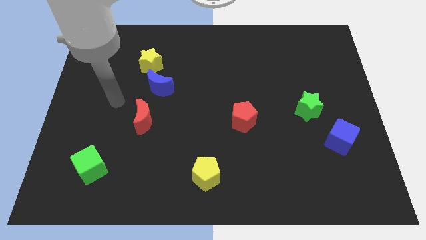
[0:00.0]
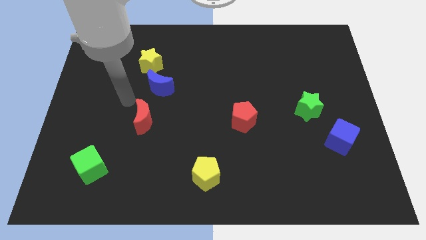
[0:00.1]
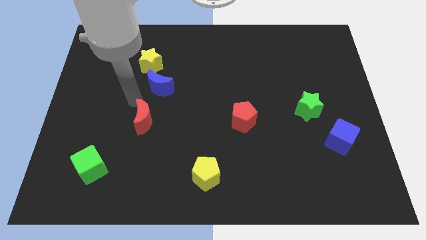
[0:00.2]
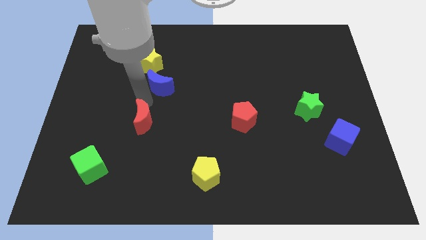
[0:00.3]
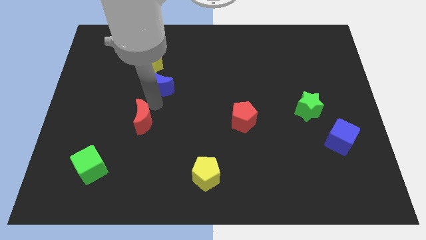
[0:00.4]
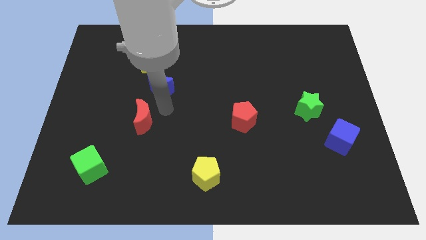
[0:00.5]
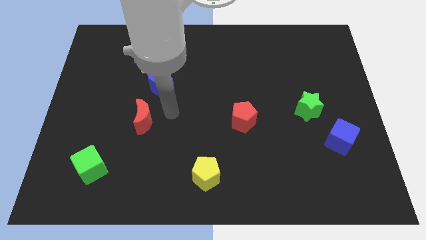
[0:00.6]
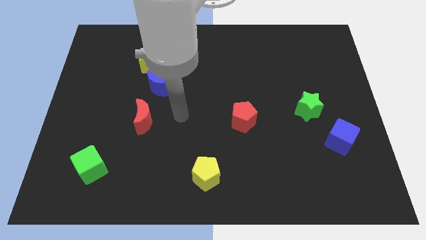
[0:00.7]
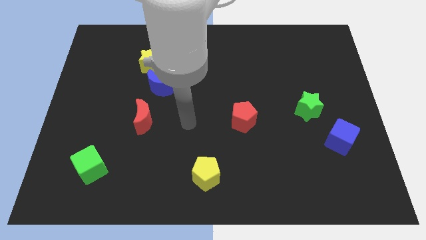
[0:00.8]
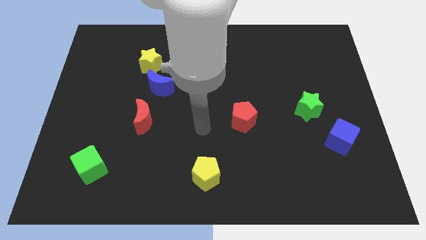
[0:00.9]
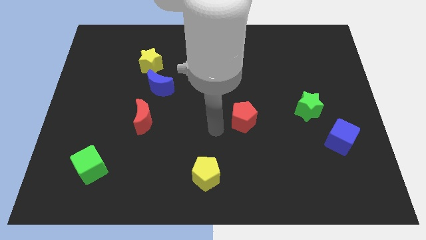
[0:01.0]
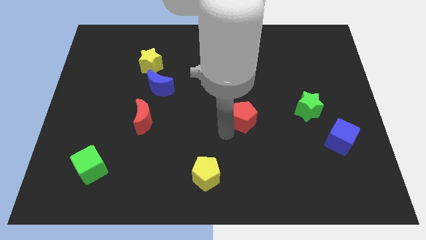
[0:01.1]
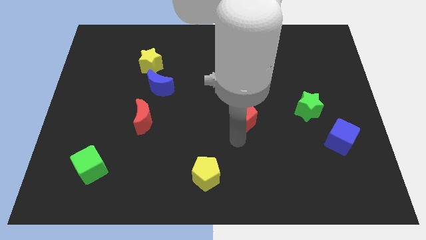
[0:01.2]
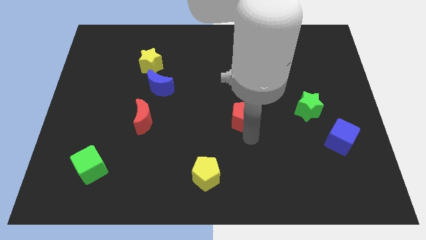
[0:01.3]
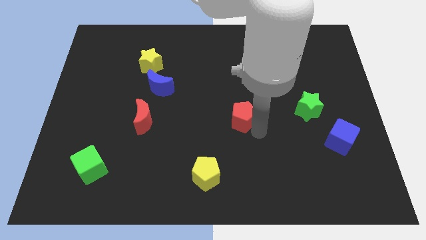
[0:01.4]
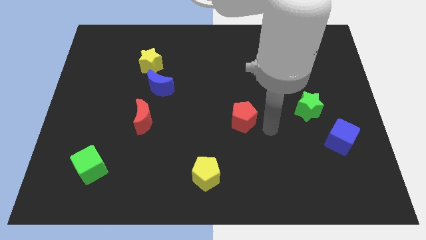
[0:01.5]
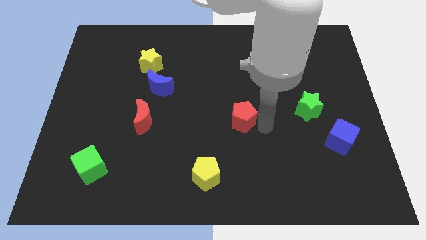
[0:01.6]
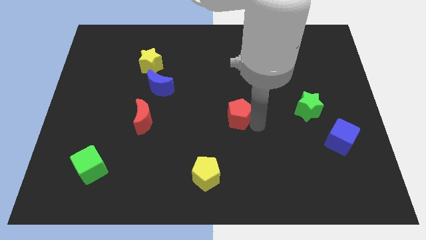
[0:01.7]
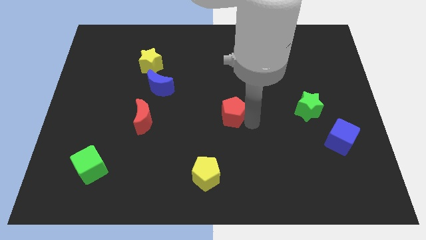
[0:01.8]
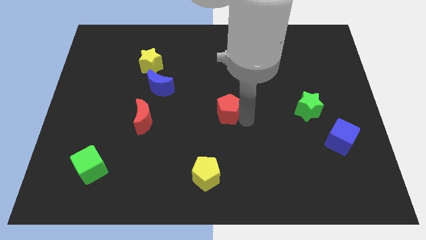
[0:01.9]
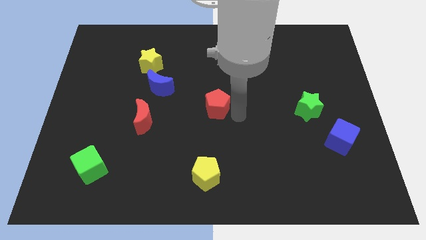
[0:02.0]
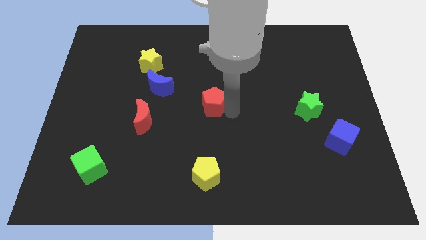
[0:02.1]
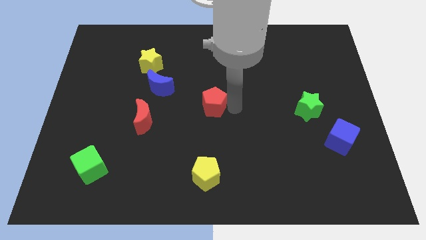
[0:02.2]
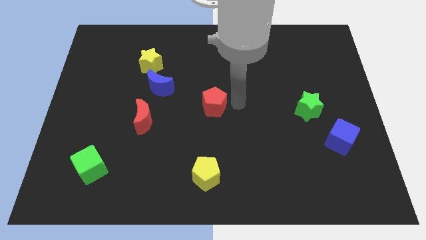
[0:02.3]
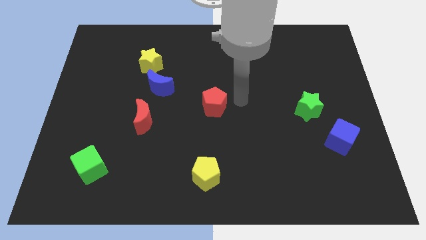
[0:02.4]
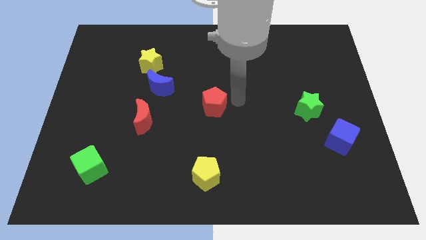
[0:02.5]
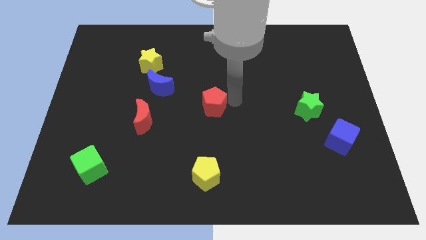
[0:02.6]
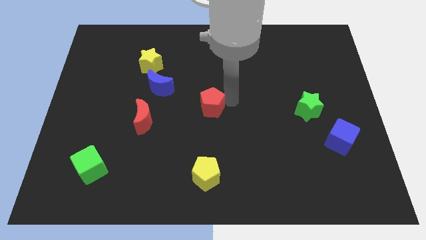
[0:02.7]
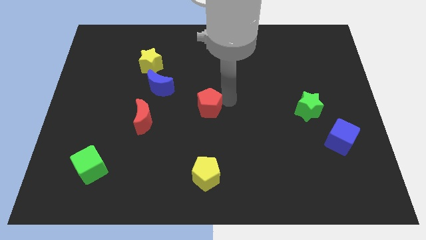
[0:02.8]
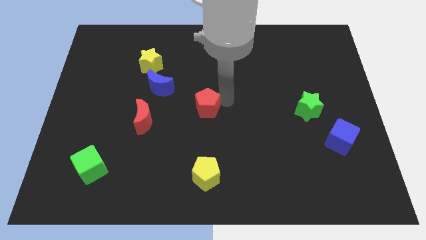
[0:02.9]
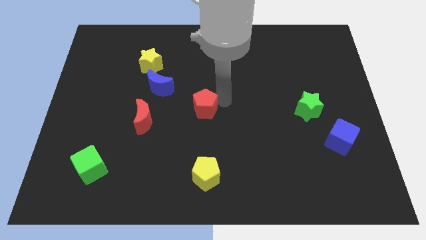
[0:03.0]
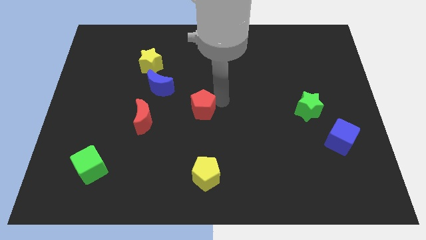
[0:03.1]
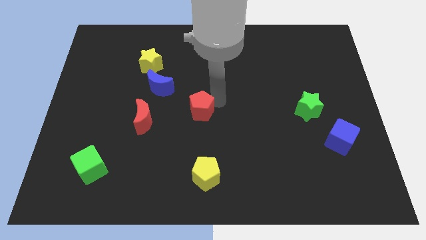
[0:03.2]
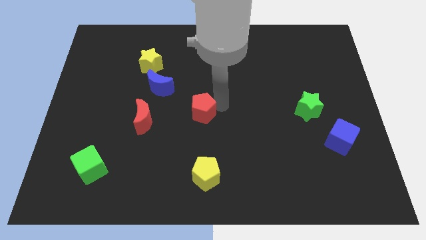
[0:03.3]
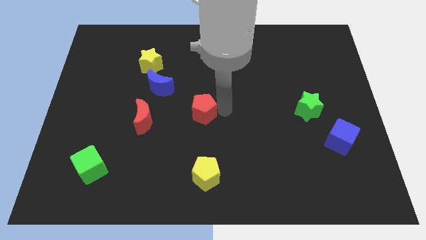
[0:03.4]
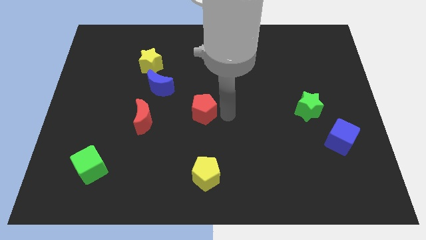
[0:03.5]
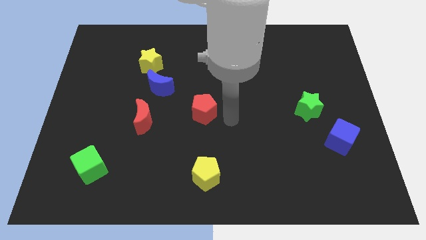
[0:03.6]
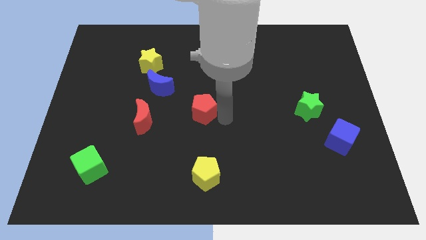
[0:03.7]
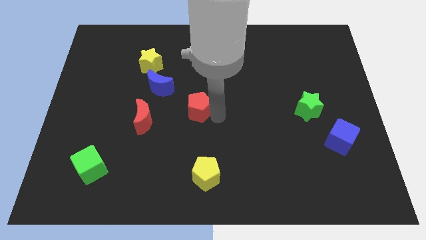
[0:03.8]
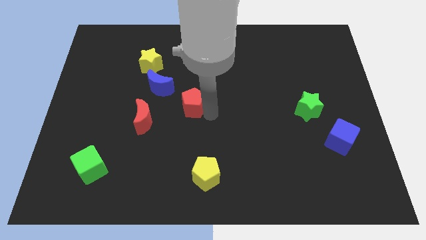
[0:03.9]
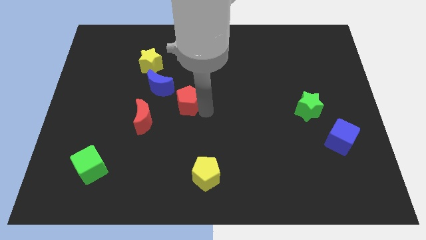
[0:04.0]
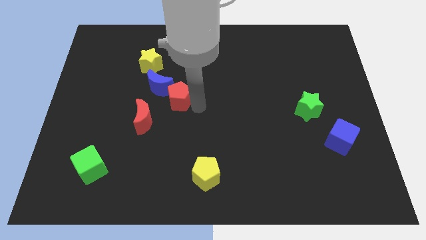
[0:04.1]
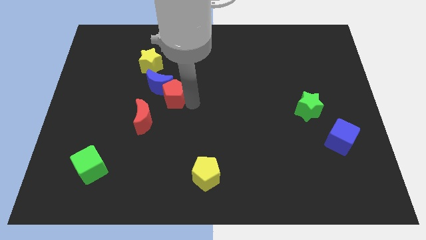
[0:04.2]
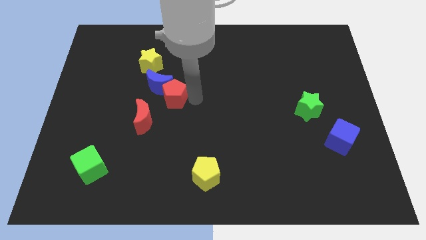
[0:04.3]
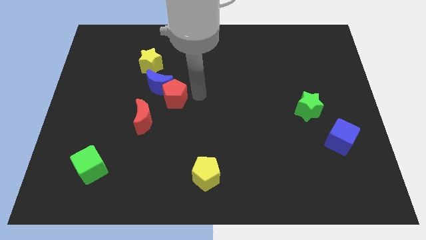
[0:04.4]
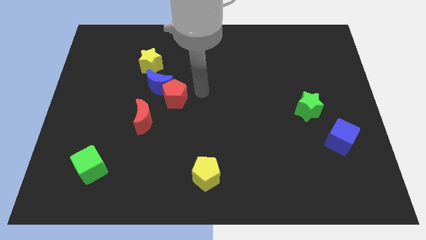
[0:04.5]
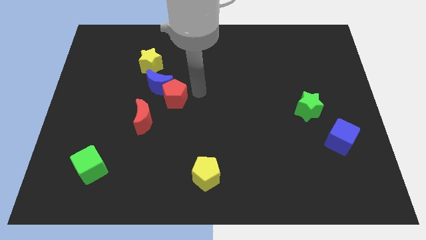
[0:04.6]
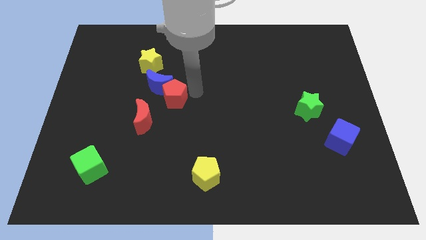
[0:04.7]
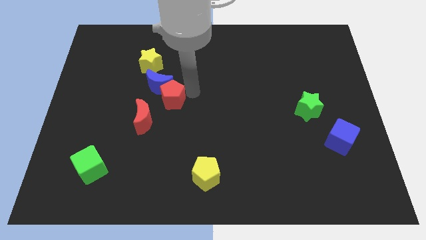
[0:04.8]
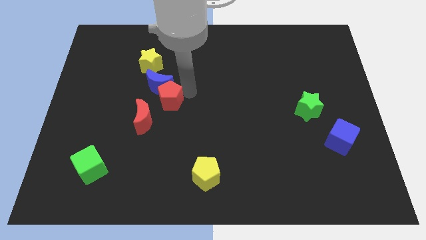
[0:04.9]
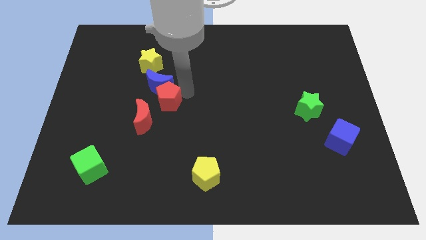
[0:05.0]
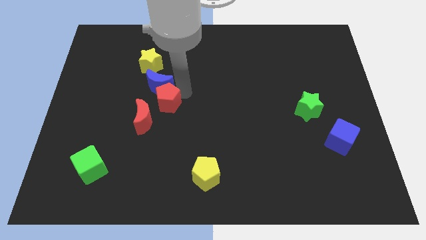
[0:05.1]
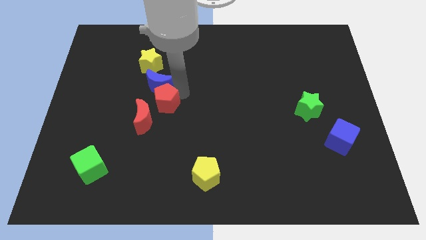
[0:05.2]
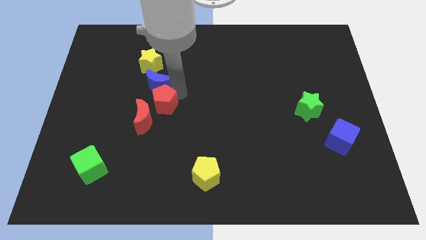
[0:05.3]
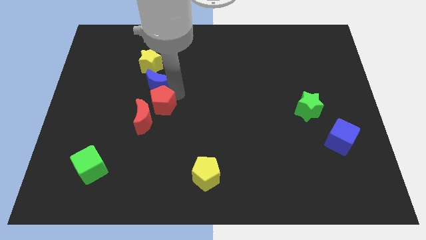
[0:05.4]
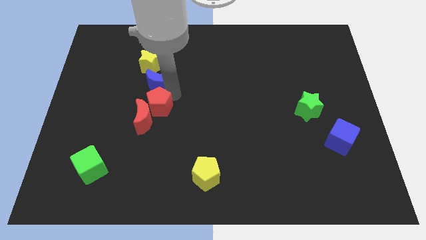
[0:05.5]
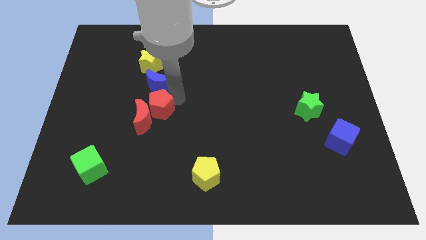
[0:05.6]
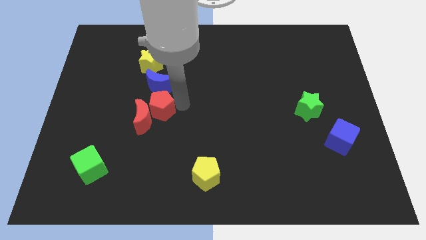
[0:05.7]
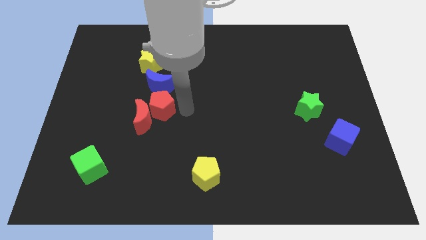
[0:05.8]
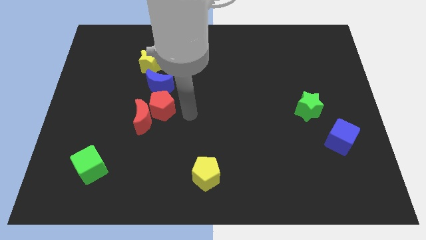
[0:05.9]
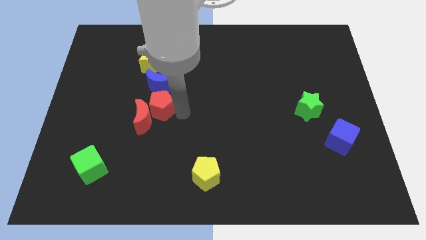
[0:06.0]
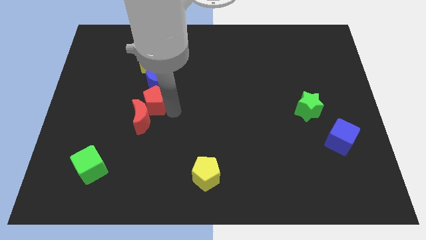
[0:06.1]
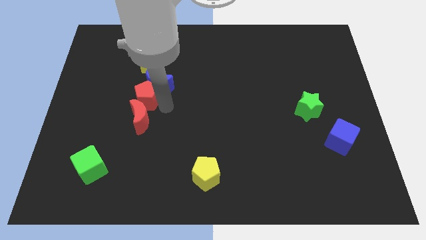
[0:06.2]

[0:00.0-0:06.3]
push the red pentagon to the top left side of the red moon
